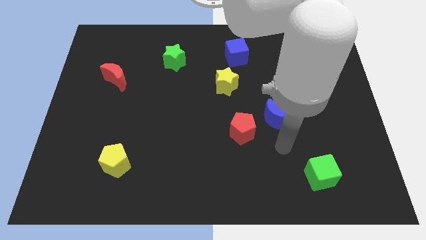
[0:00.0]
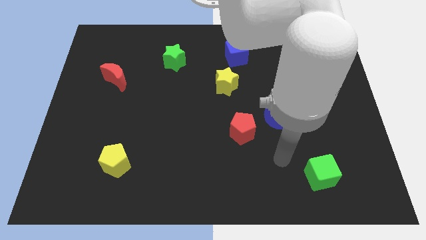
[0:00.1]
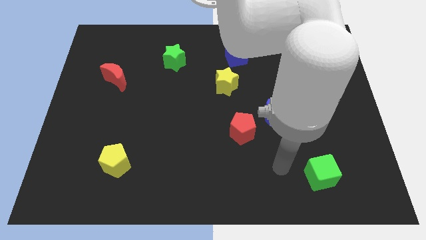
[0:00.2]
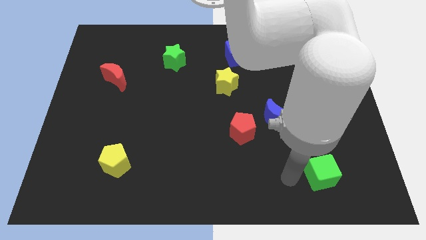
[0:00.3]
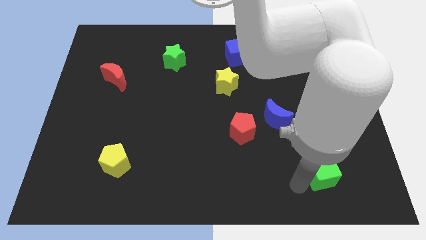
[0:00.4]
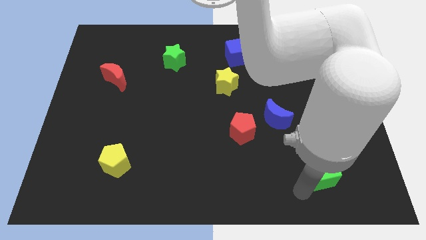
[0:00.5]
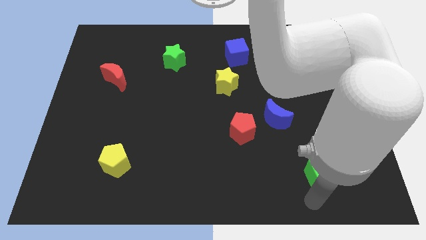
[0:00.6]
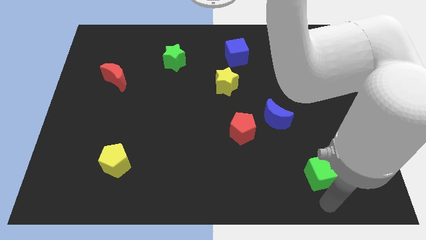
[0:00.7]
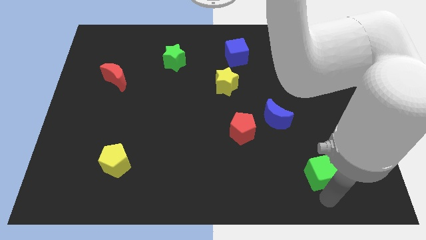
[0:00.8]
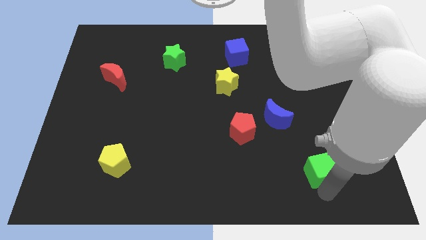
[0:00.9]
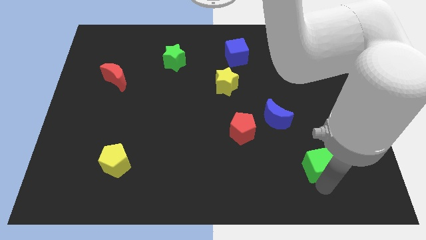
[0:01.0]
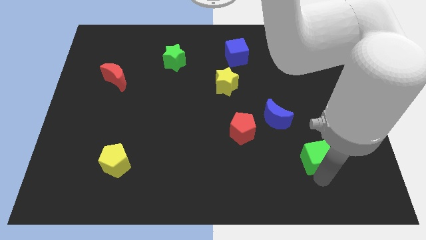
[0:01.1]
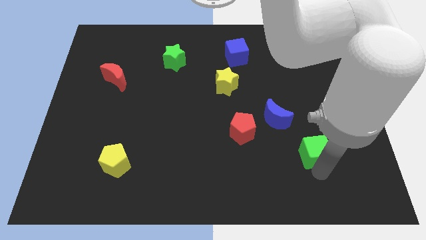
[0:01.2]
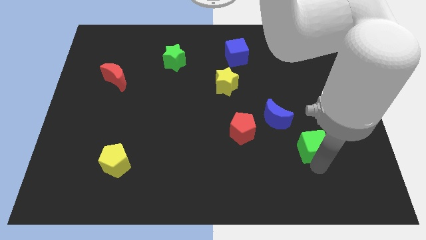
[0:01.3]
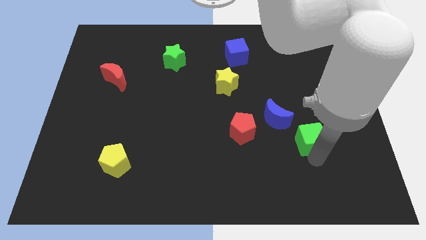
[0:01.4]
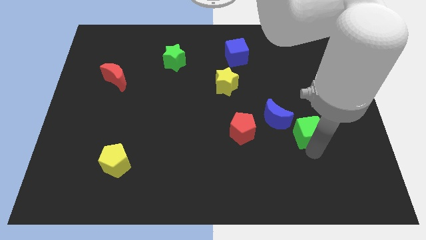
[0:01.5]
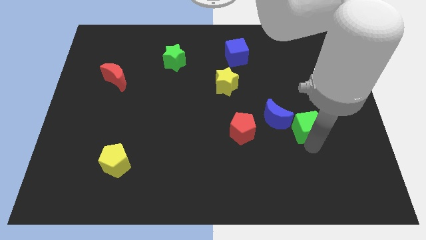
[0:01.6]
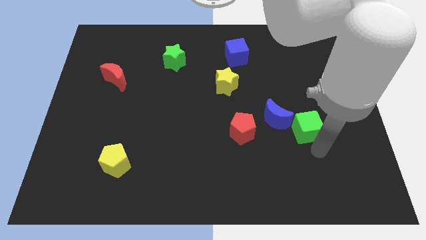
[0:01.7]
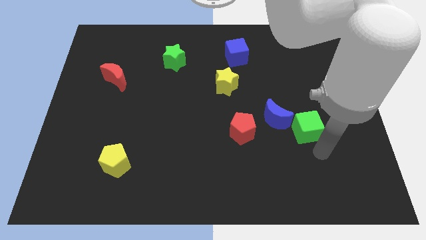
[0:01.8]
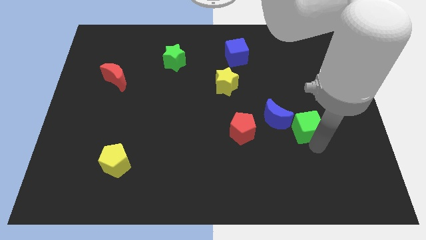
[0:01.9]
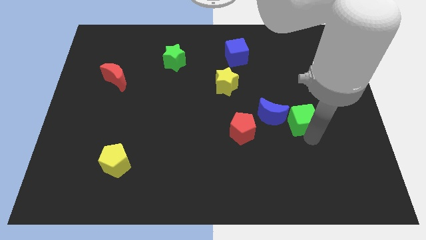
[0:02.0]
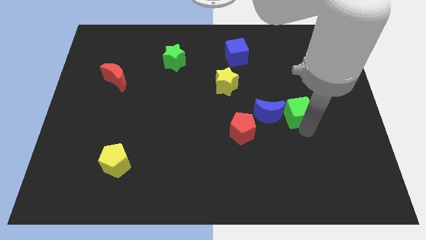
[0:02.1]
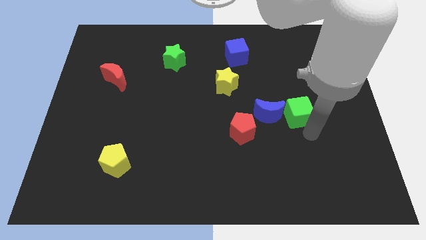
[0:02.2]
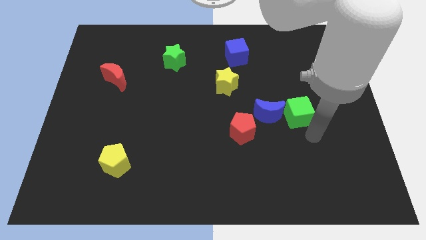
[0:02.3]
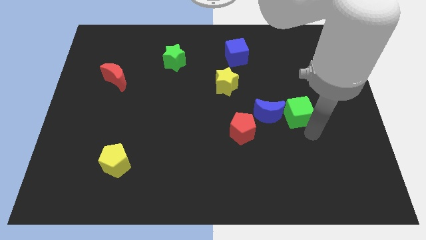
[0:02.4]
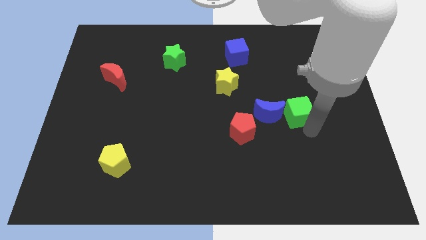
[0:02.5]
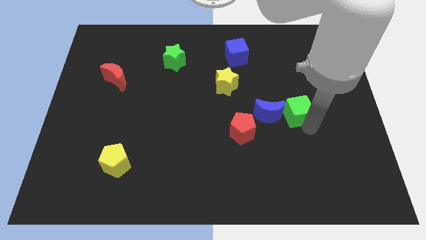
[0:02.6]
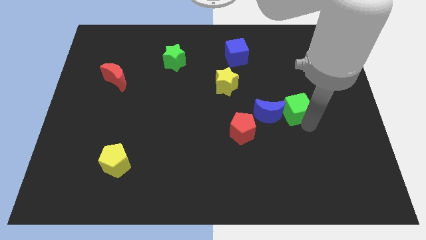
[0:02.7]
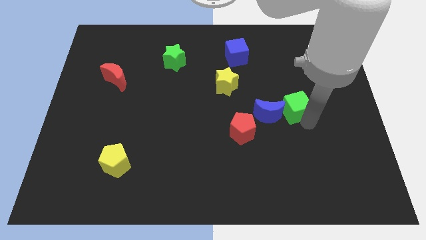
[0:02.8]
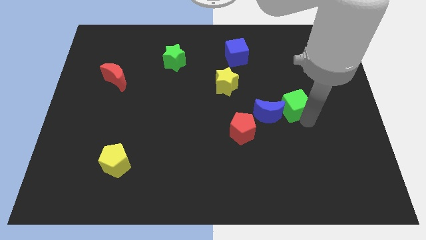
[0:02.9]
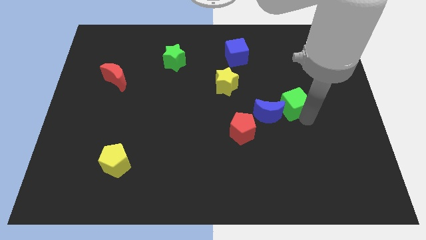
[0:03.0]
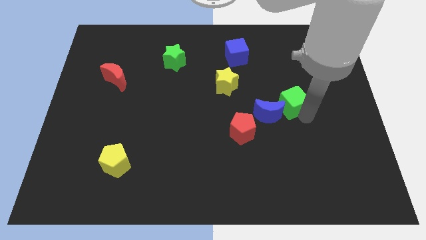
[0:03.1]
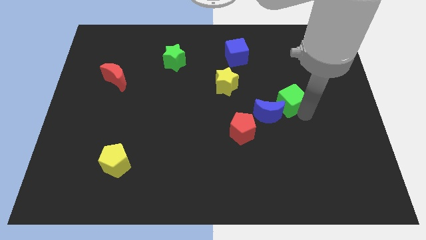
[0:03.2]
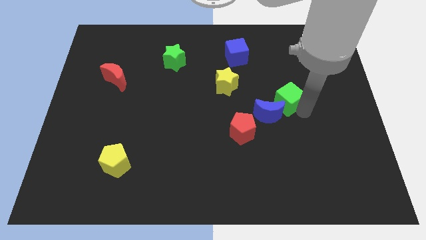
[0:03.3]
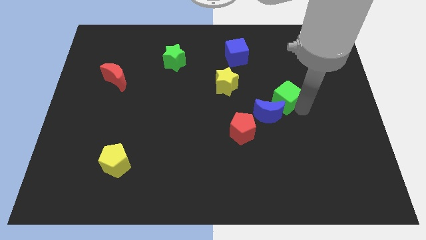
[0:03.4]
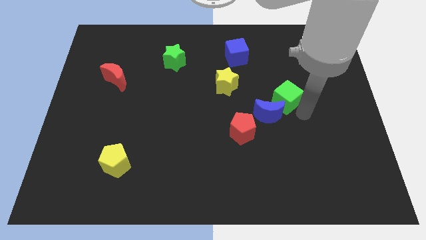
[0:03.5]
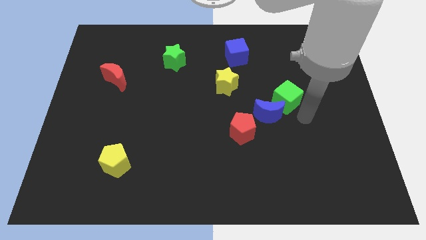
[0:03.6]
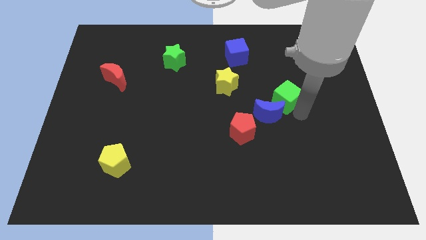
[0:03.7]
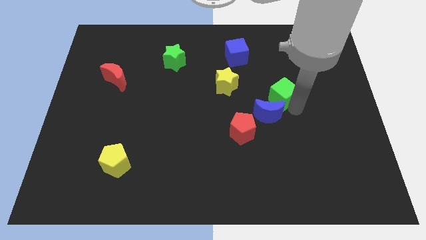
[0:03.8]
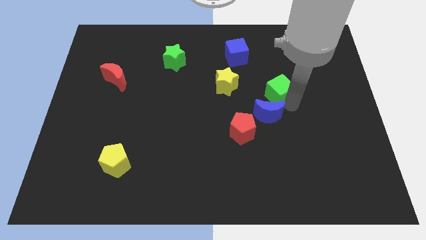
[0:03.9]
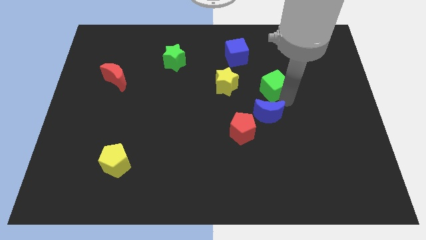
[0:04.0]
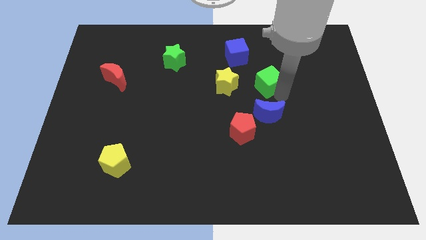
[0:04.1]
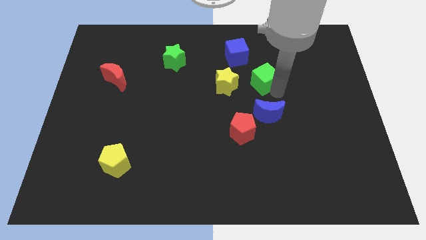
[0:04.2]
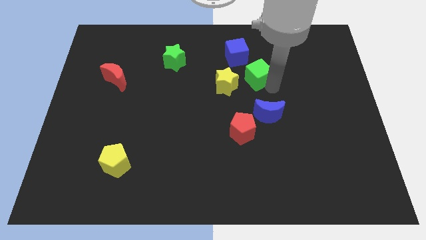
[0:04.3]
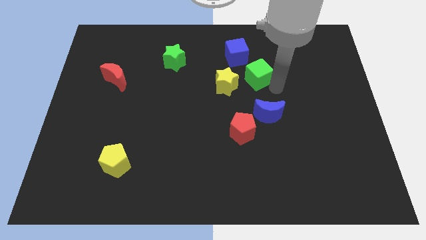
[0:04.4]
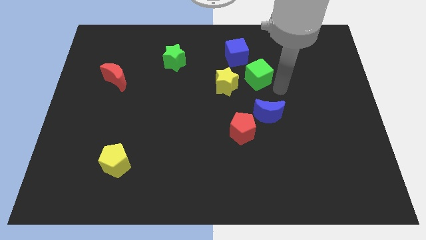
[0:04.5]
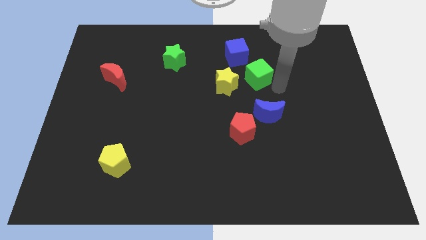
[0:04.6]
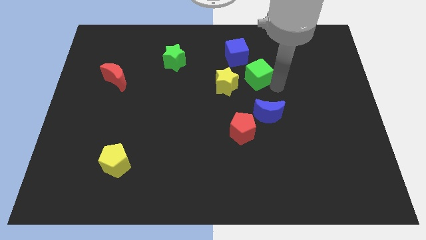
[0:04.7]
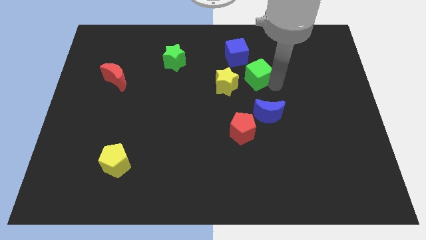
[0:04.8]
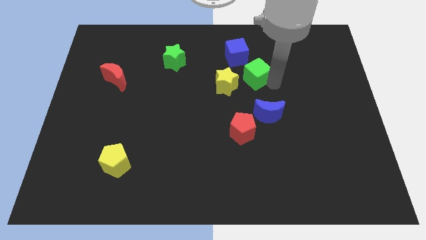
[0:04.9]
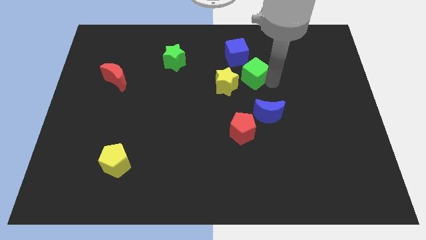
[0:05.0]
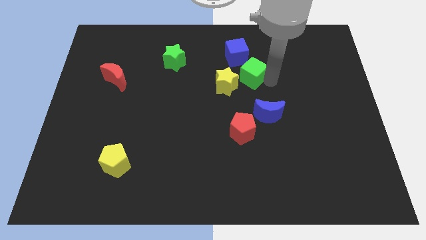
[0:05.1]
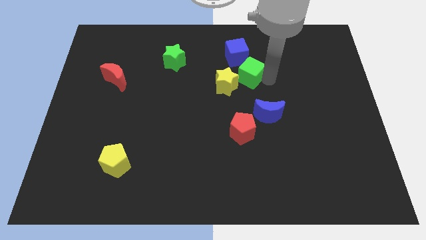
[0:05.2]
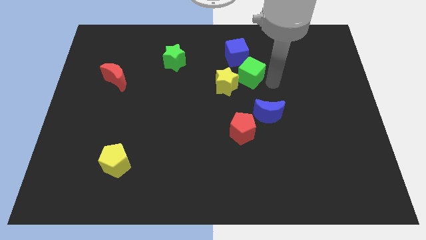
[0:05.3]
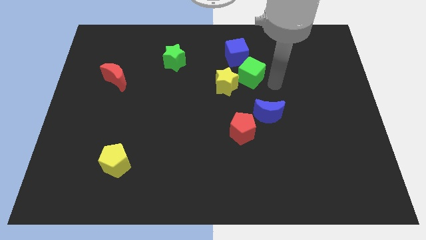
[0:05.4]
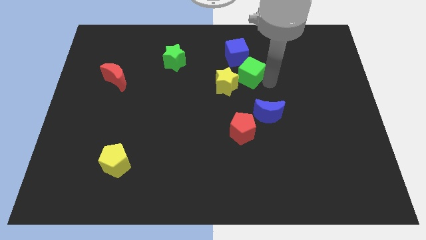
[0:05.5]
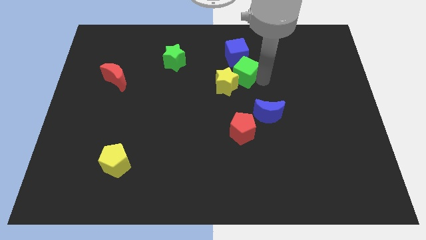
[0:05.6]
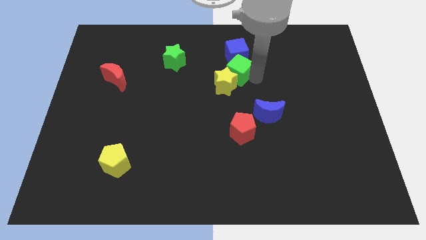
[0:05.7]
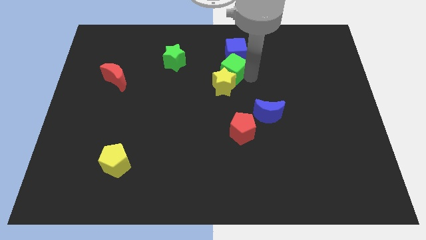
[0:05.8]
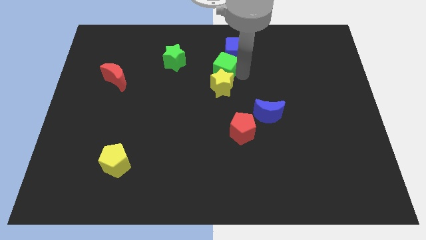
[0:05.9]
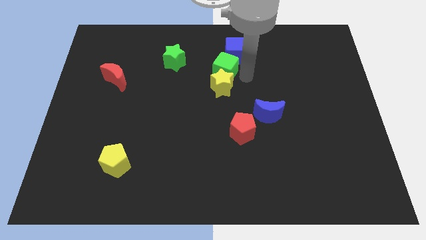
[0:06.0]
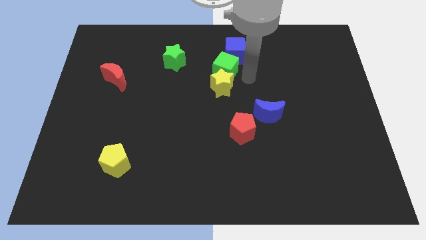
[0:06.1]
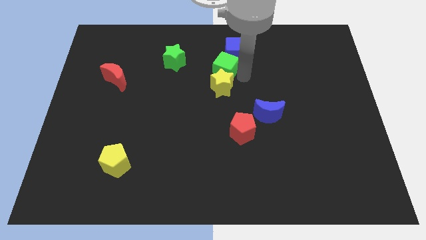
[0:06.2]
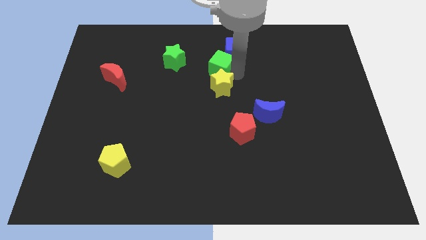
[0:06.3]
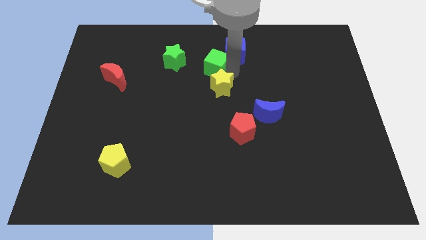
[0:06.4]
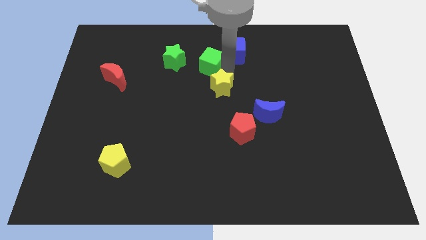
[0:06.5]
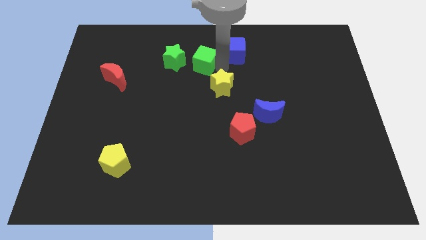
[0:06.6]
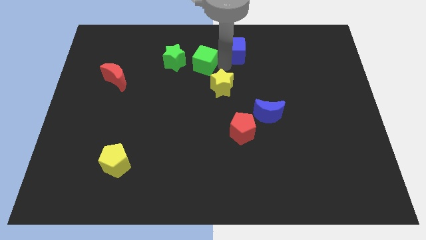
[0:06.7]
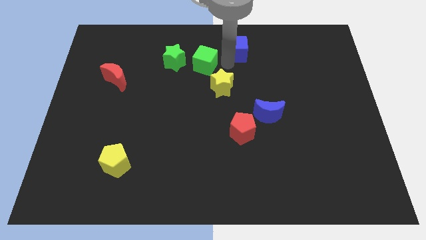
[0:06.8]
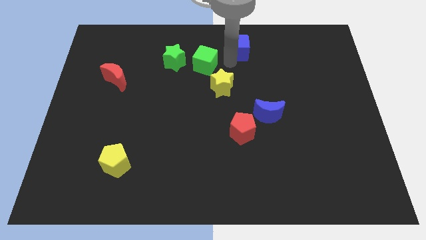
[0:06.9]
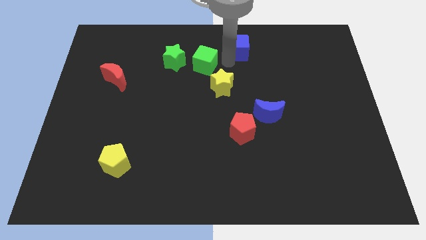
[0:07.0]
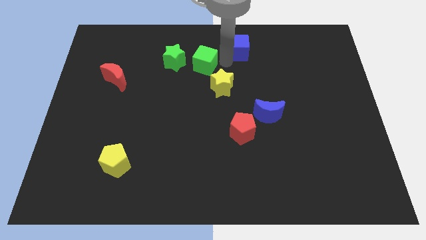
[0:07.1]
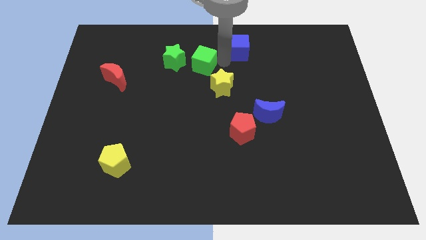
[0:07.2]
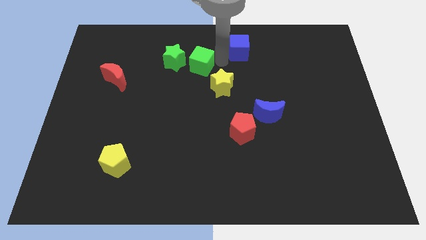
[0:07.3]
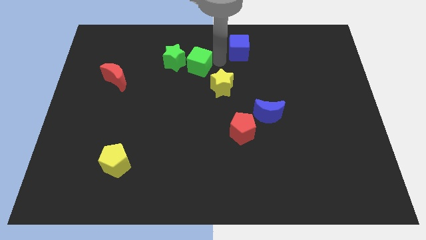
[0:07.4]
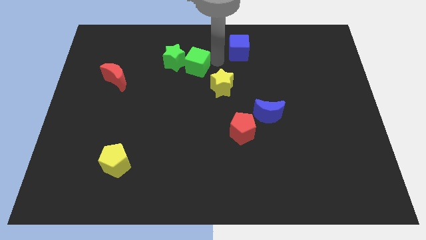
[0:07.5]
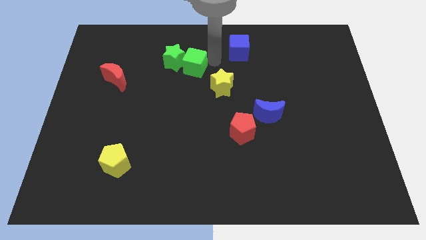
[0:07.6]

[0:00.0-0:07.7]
slide the green cube next to the green star
